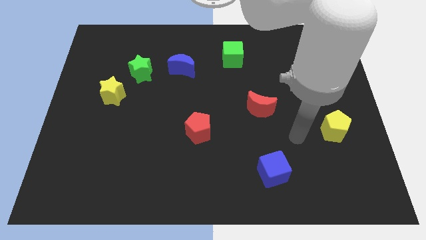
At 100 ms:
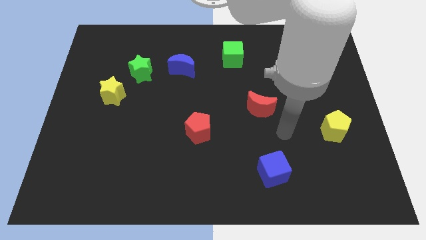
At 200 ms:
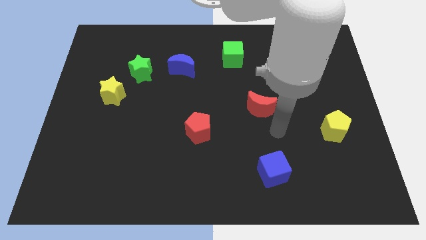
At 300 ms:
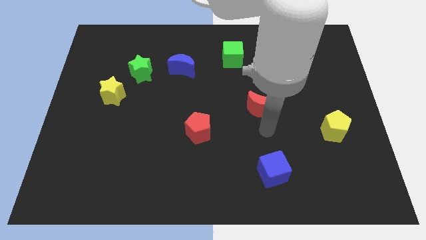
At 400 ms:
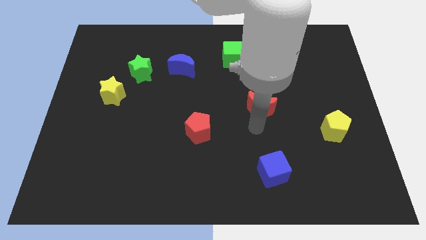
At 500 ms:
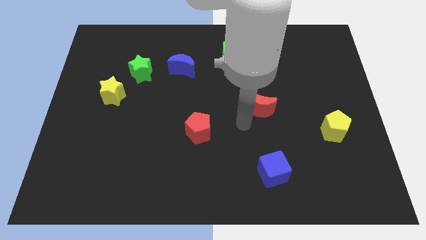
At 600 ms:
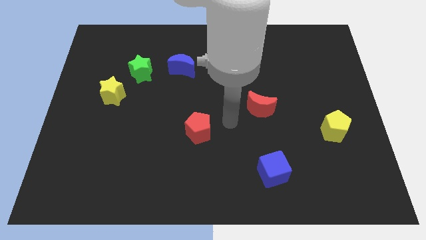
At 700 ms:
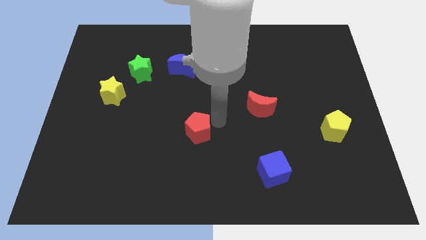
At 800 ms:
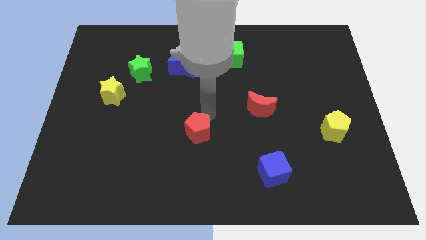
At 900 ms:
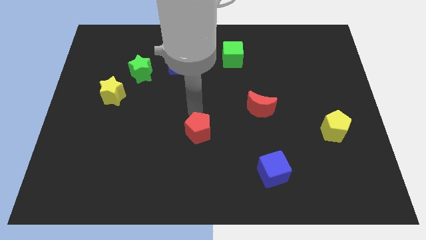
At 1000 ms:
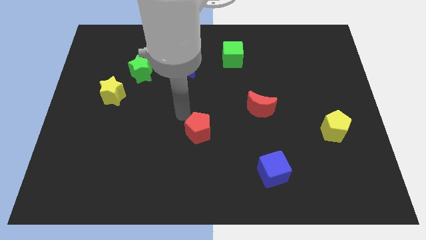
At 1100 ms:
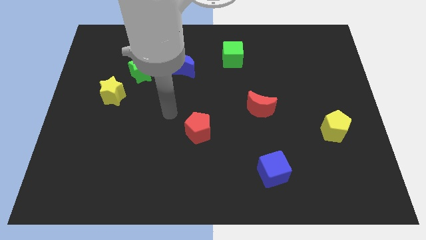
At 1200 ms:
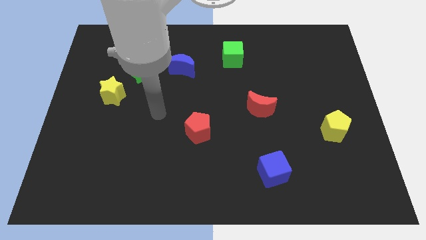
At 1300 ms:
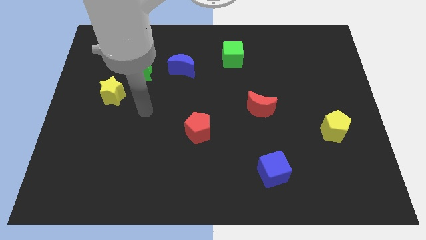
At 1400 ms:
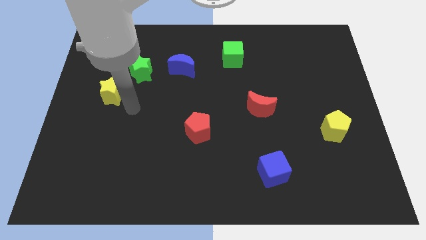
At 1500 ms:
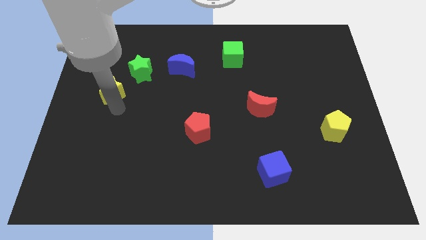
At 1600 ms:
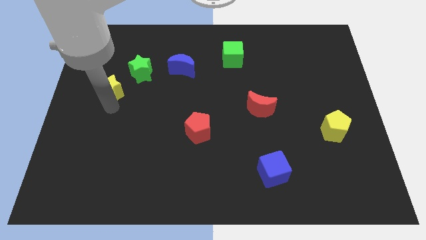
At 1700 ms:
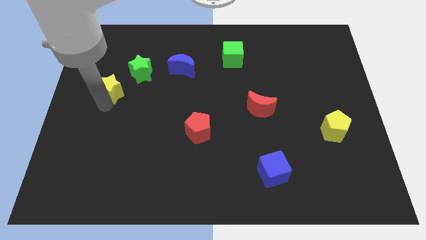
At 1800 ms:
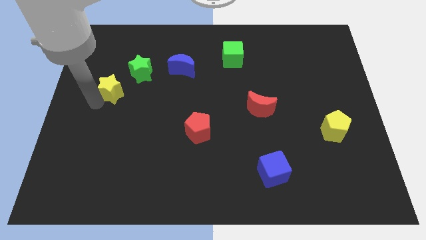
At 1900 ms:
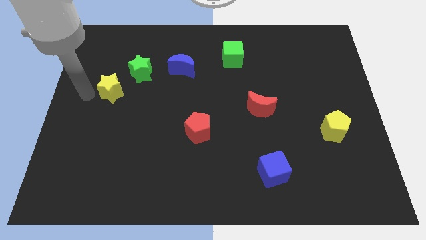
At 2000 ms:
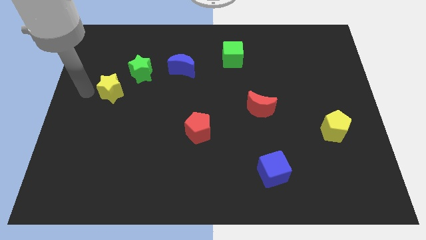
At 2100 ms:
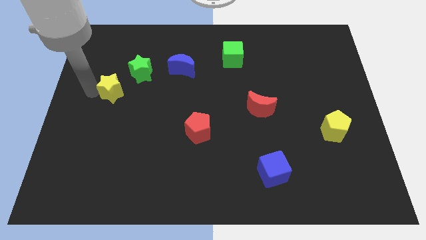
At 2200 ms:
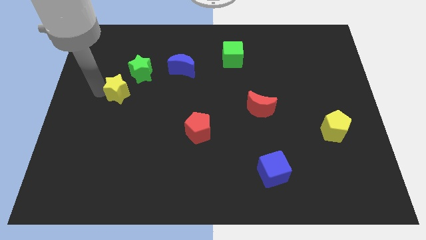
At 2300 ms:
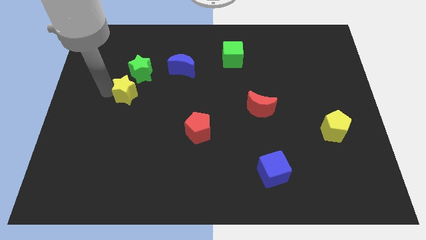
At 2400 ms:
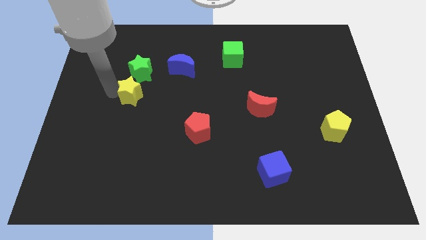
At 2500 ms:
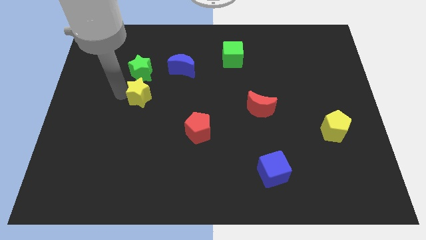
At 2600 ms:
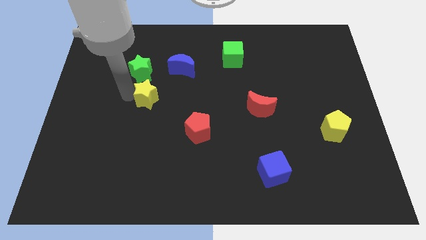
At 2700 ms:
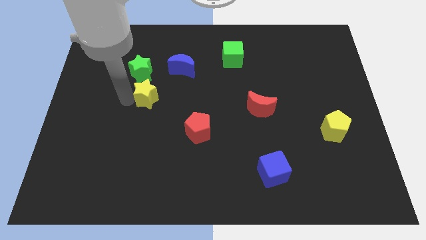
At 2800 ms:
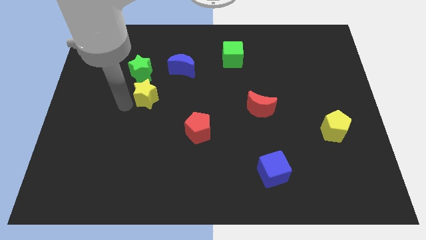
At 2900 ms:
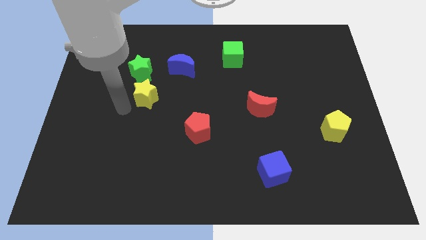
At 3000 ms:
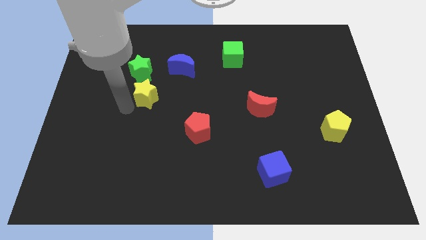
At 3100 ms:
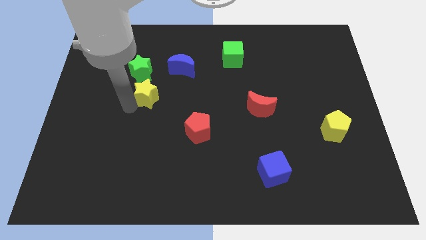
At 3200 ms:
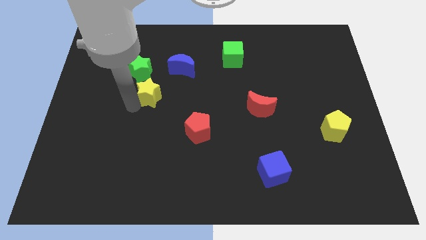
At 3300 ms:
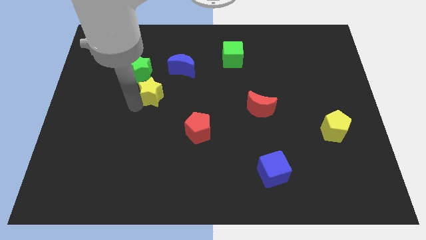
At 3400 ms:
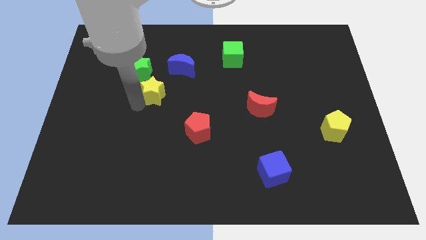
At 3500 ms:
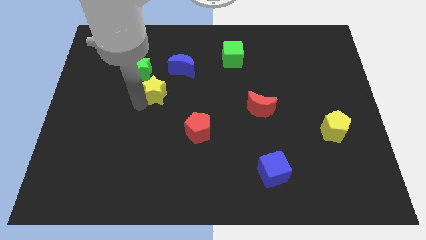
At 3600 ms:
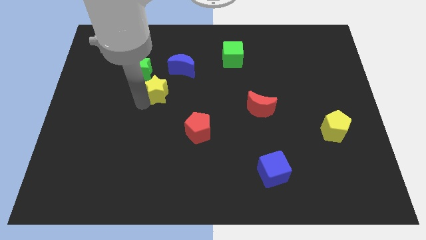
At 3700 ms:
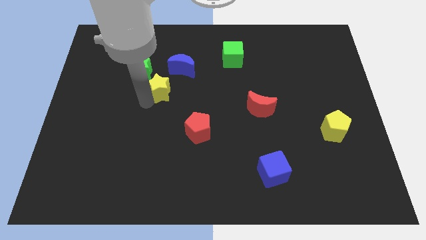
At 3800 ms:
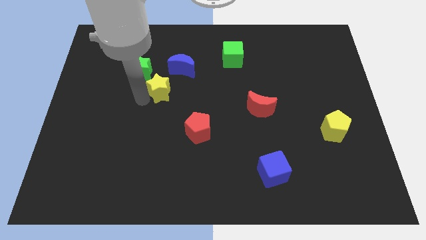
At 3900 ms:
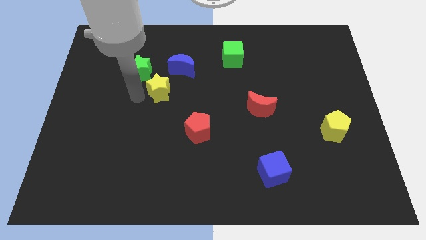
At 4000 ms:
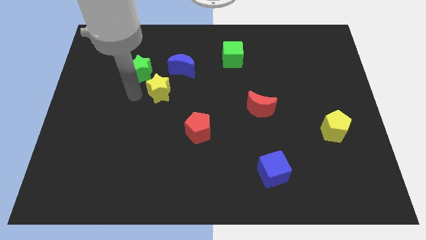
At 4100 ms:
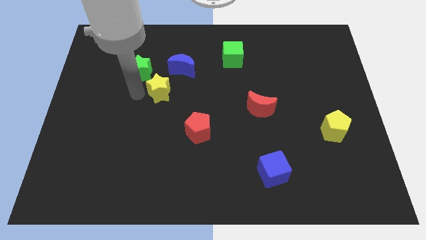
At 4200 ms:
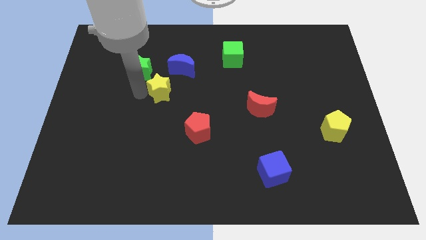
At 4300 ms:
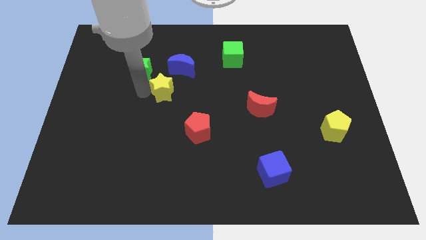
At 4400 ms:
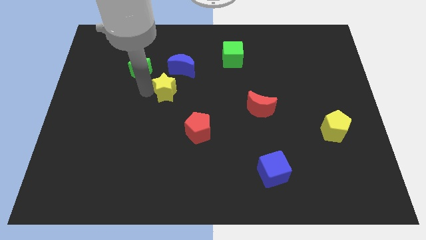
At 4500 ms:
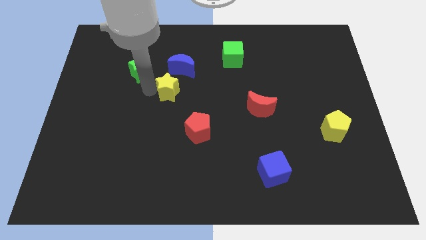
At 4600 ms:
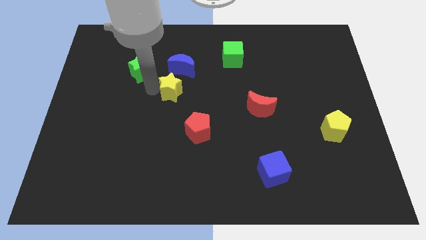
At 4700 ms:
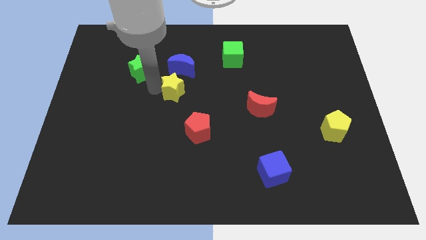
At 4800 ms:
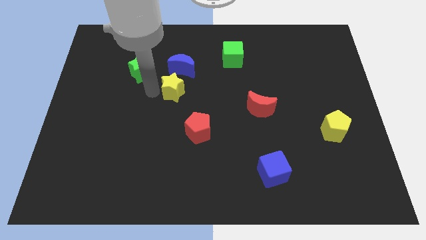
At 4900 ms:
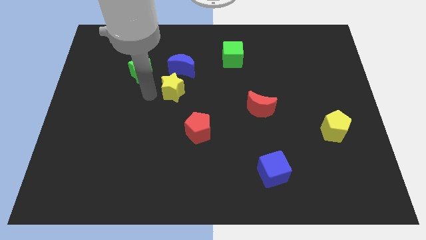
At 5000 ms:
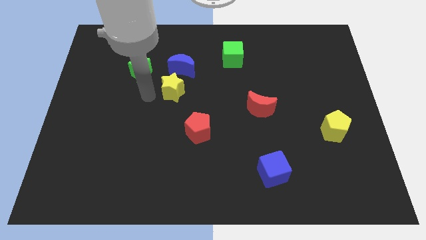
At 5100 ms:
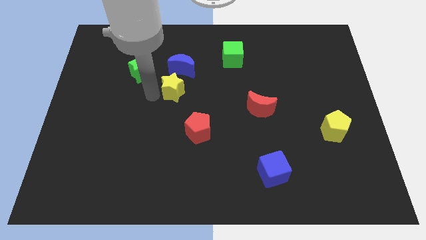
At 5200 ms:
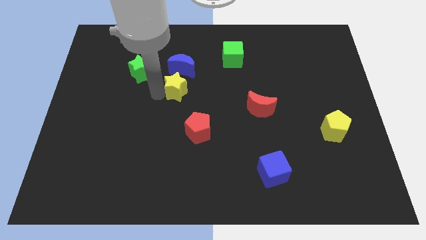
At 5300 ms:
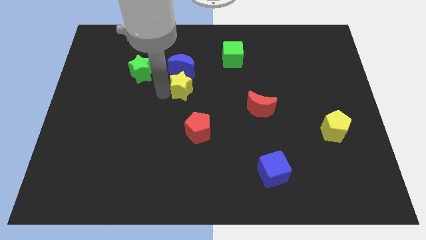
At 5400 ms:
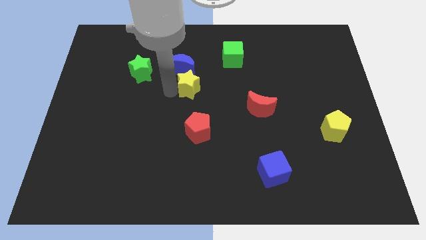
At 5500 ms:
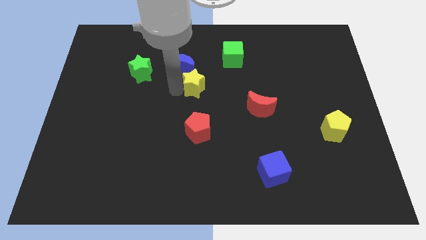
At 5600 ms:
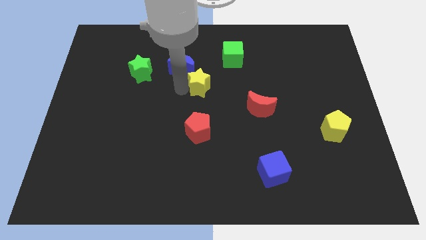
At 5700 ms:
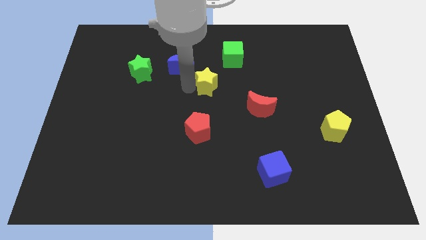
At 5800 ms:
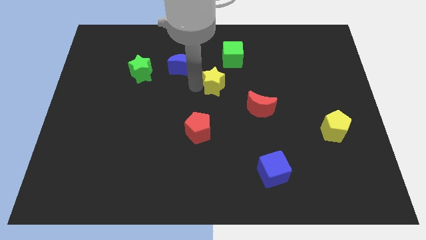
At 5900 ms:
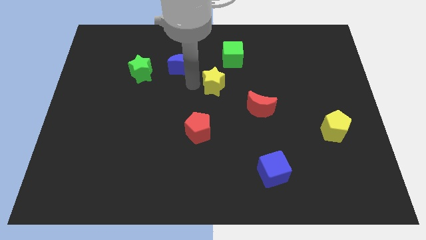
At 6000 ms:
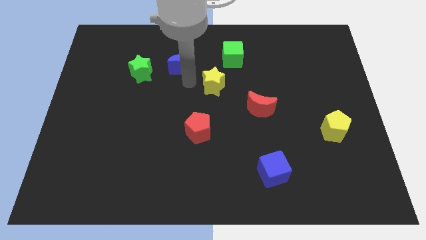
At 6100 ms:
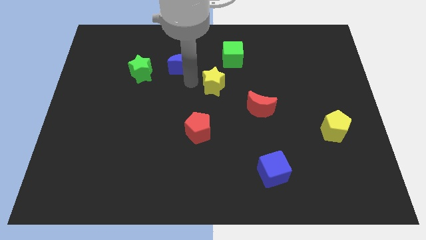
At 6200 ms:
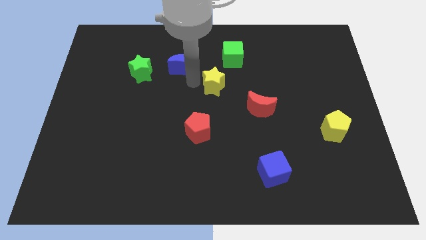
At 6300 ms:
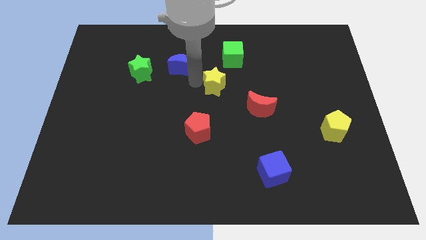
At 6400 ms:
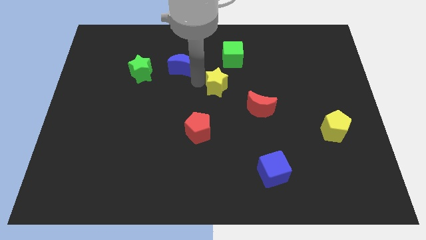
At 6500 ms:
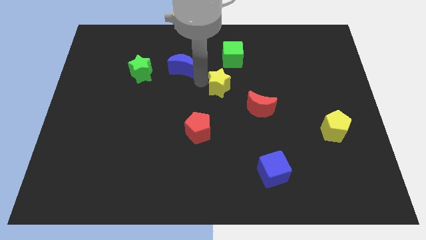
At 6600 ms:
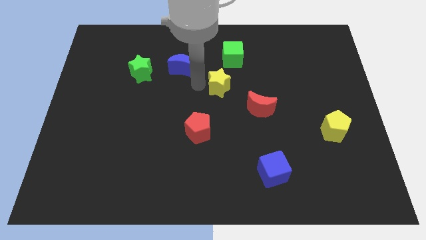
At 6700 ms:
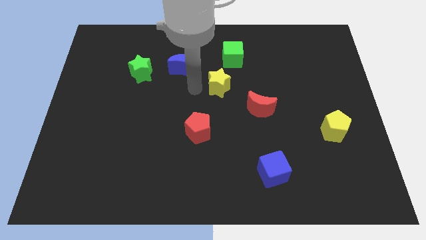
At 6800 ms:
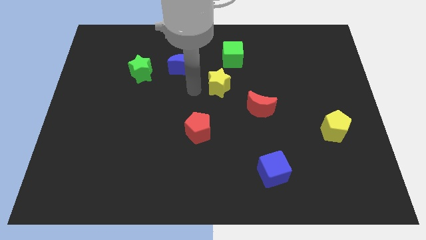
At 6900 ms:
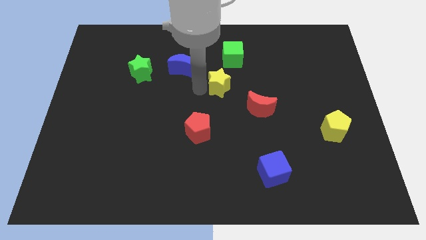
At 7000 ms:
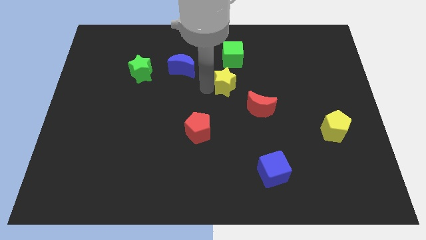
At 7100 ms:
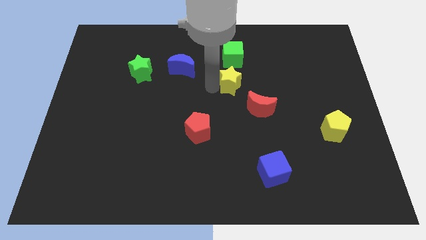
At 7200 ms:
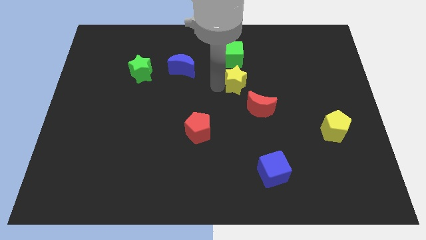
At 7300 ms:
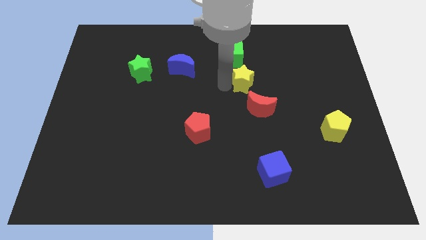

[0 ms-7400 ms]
move the yellow star to the top side of the red moon
